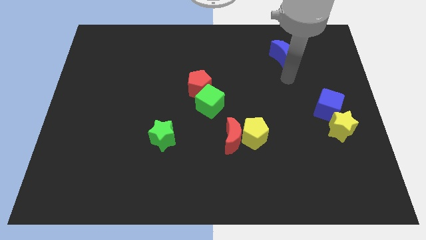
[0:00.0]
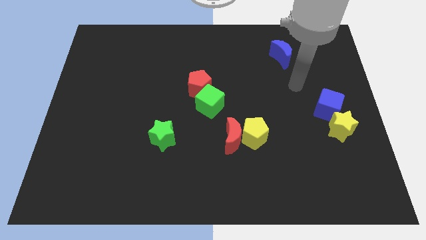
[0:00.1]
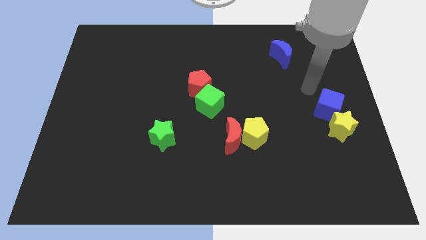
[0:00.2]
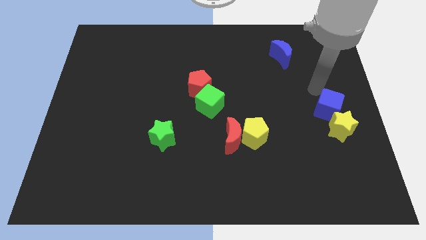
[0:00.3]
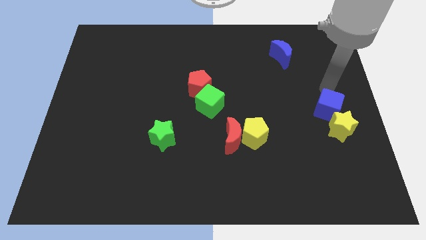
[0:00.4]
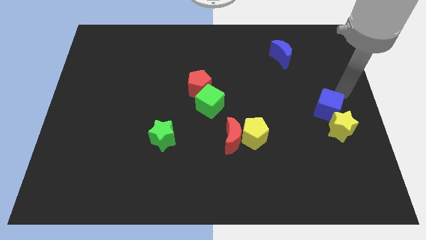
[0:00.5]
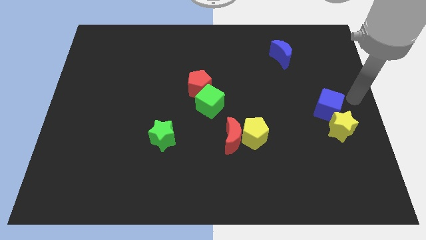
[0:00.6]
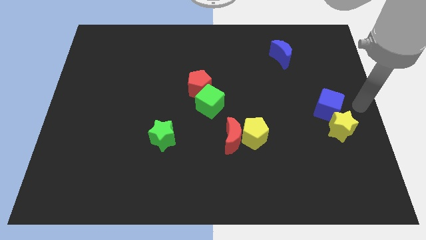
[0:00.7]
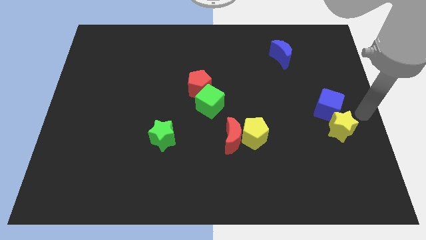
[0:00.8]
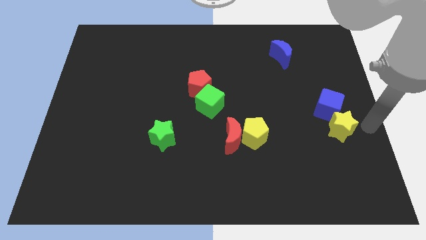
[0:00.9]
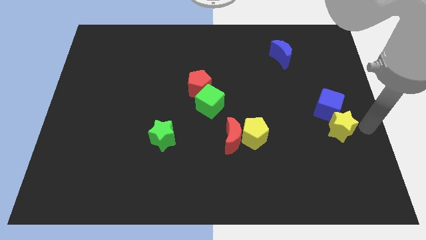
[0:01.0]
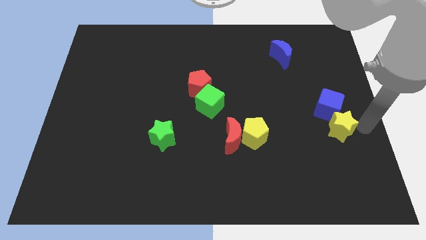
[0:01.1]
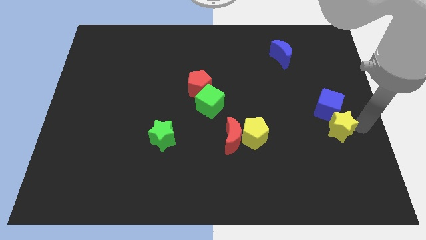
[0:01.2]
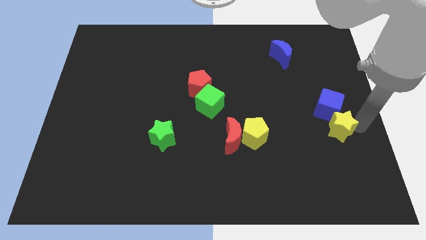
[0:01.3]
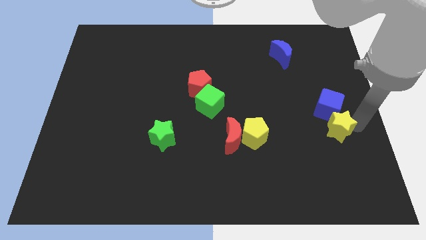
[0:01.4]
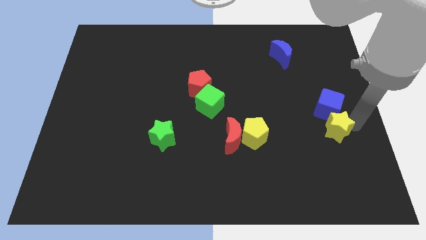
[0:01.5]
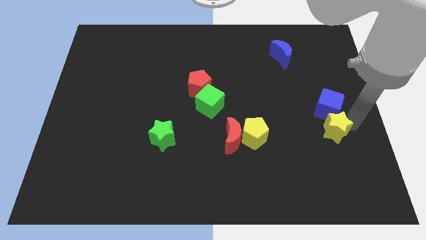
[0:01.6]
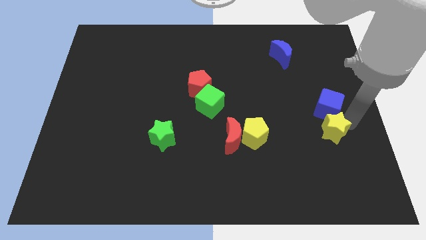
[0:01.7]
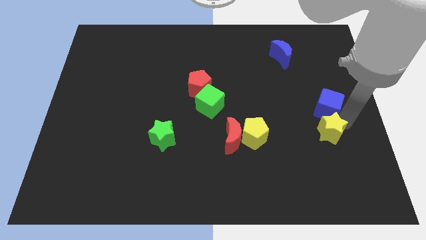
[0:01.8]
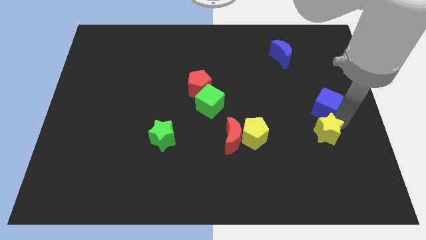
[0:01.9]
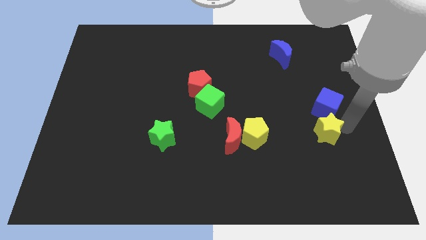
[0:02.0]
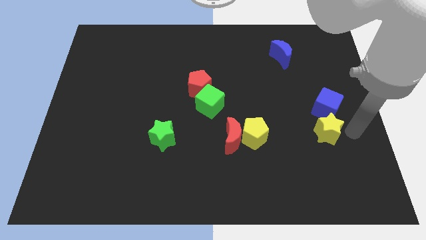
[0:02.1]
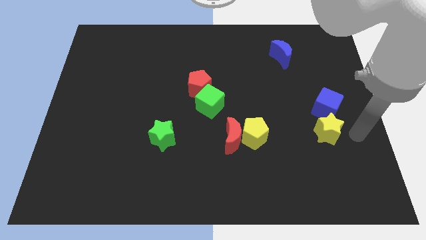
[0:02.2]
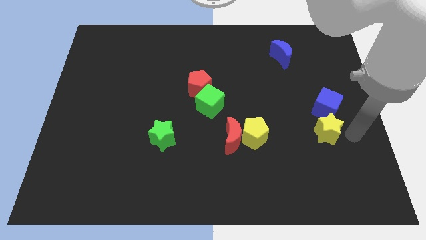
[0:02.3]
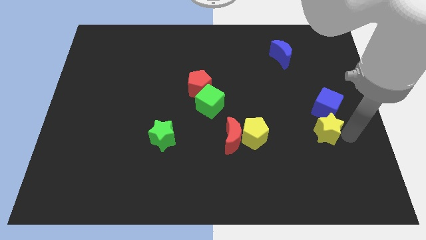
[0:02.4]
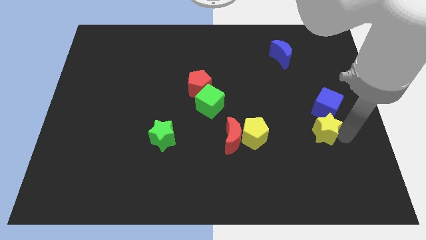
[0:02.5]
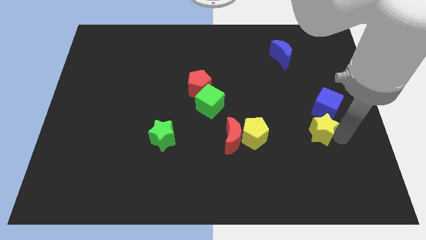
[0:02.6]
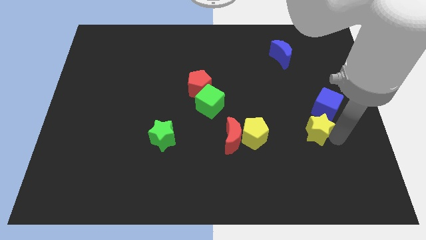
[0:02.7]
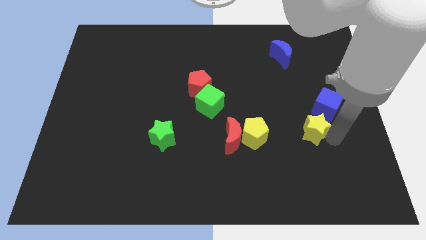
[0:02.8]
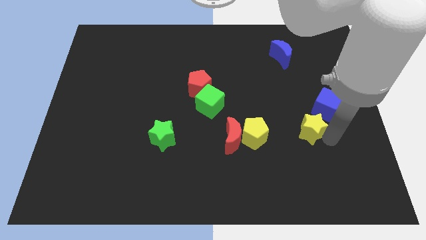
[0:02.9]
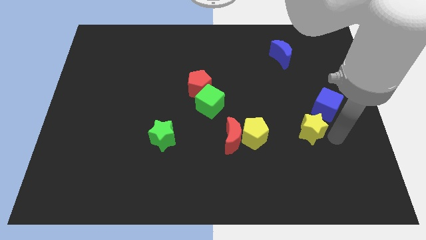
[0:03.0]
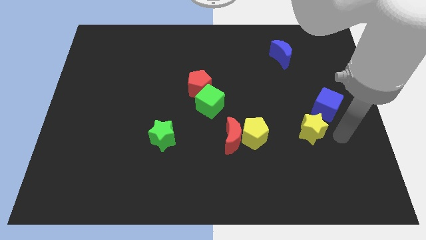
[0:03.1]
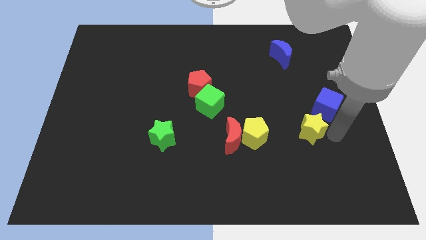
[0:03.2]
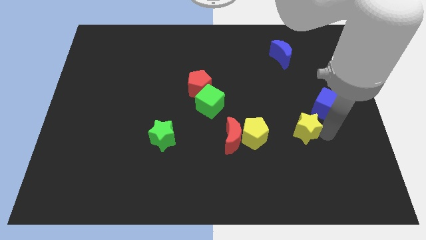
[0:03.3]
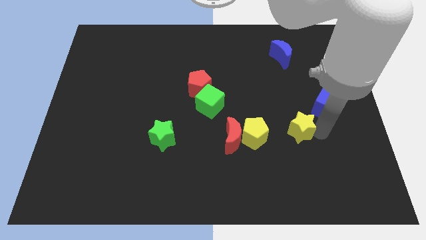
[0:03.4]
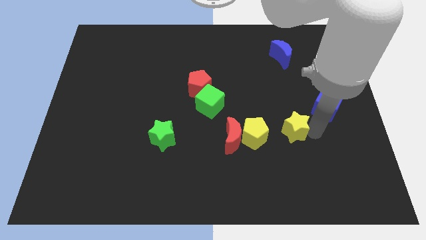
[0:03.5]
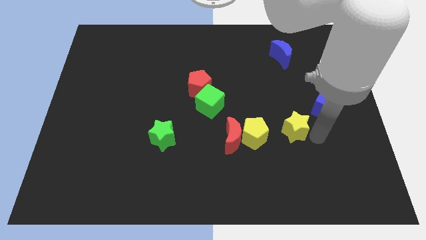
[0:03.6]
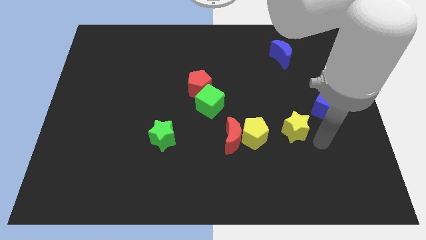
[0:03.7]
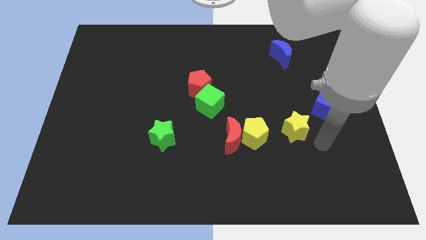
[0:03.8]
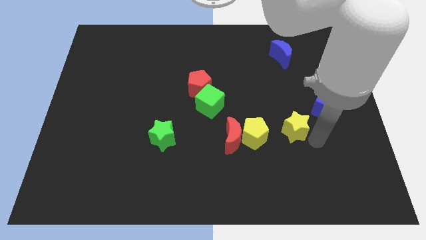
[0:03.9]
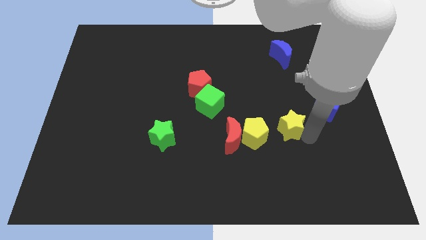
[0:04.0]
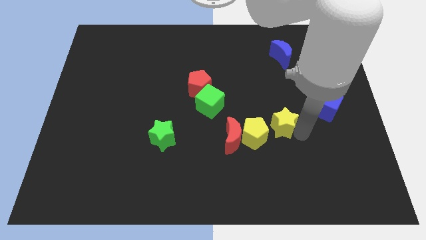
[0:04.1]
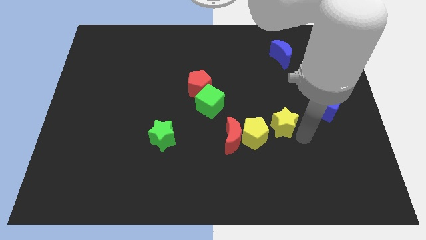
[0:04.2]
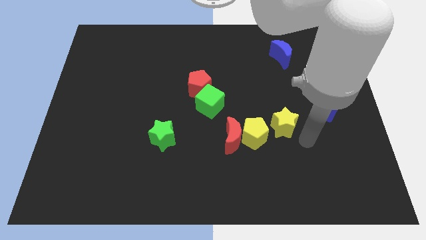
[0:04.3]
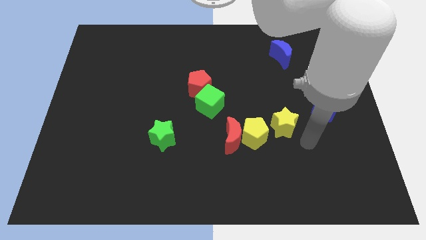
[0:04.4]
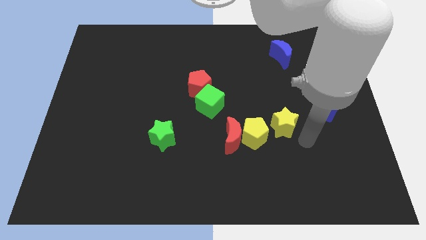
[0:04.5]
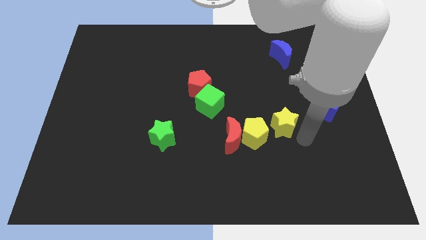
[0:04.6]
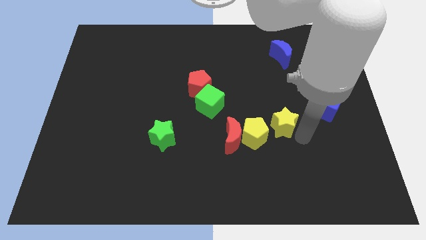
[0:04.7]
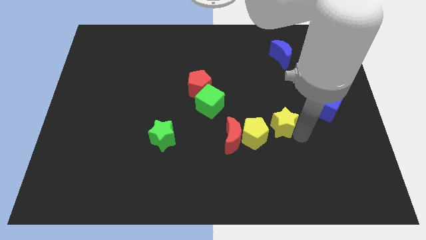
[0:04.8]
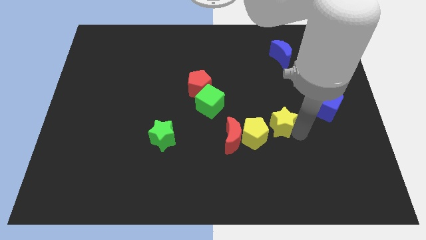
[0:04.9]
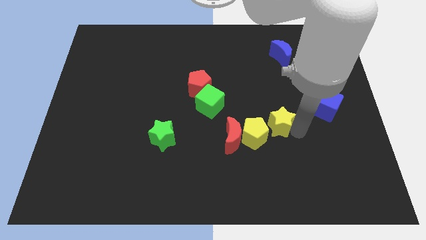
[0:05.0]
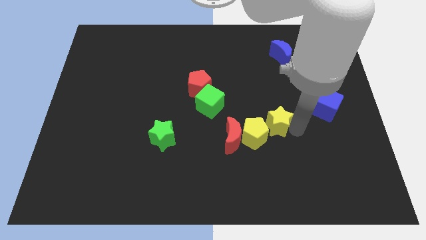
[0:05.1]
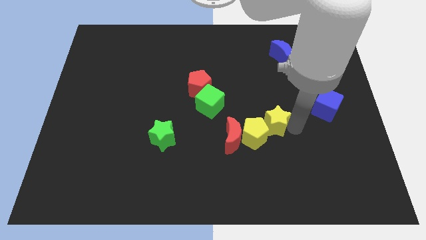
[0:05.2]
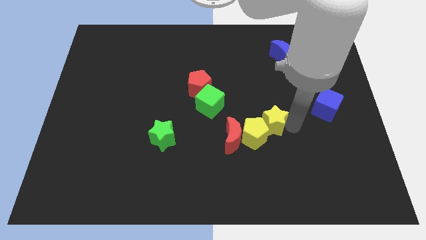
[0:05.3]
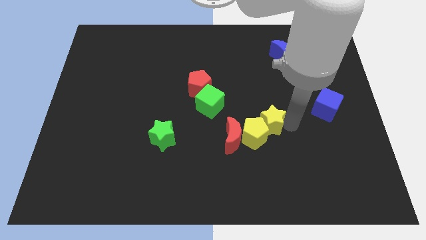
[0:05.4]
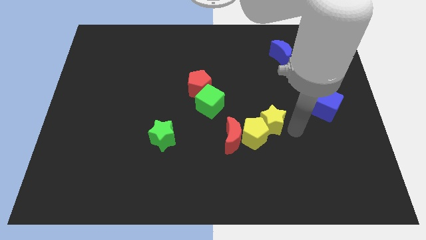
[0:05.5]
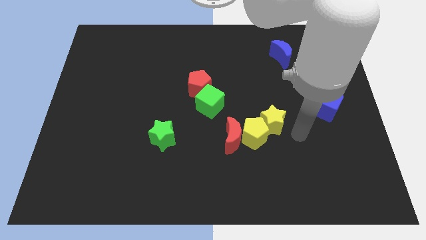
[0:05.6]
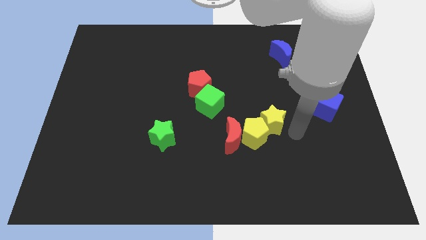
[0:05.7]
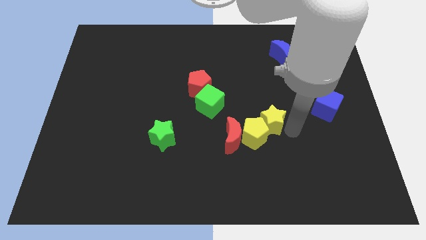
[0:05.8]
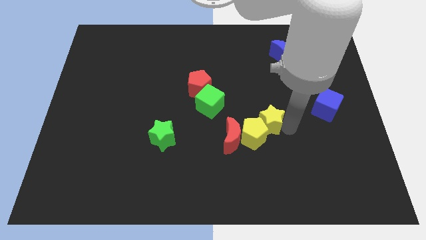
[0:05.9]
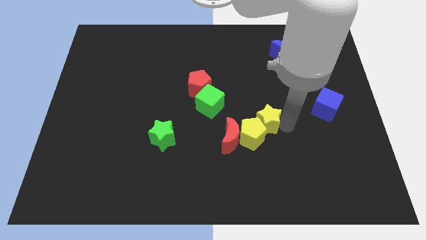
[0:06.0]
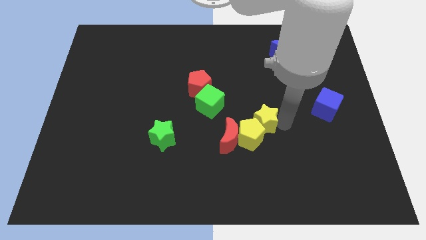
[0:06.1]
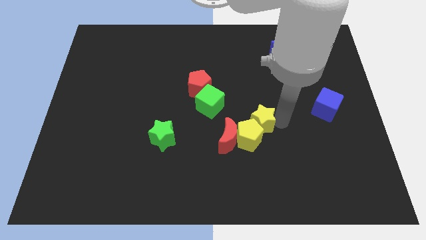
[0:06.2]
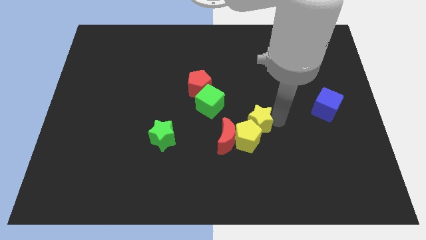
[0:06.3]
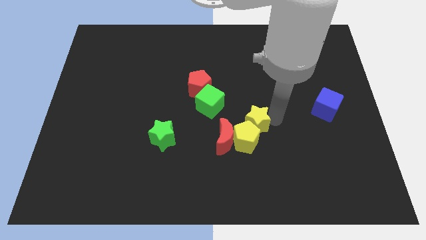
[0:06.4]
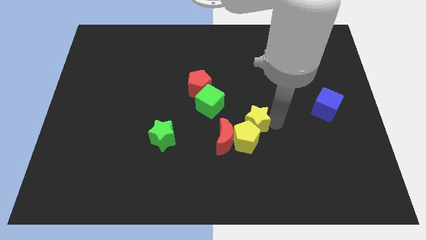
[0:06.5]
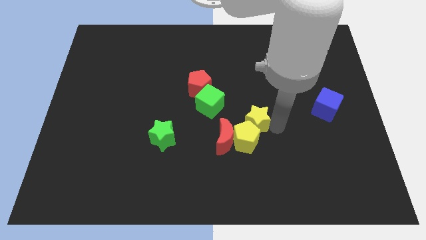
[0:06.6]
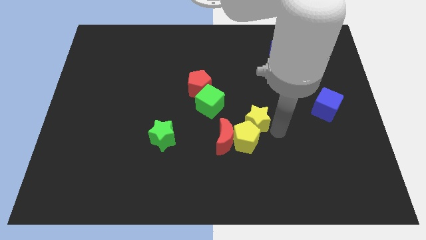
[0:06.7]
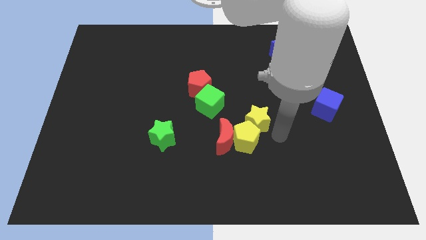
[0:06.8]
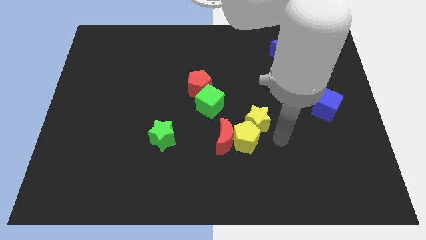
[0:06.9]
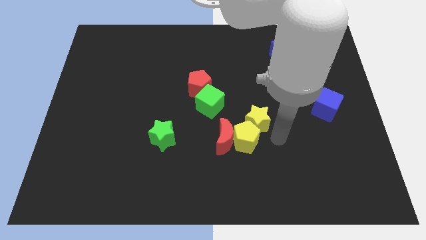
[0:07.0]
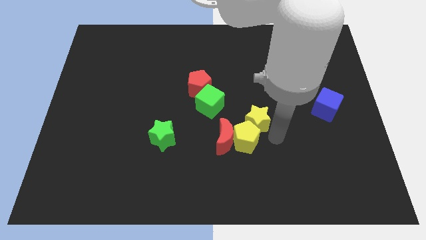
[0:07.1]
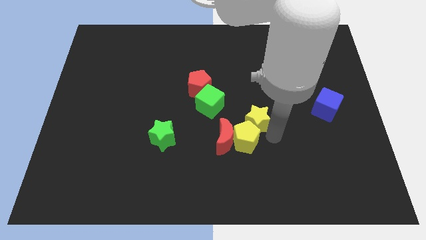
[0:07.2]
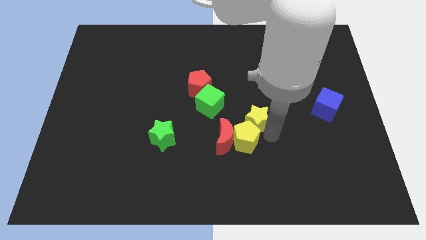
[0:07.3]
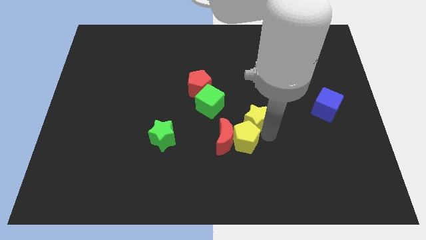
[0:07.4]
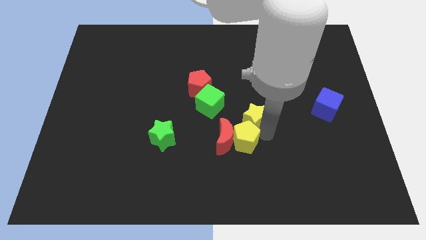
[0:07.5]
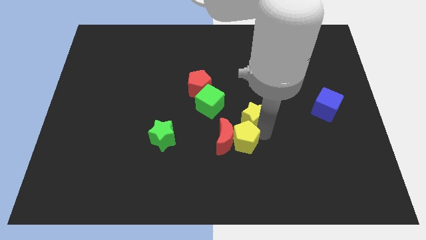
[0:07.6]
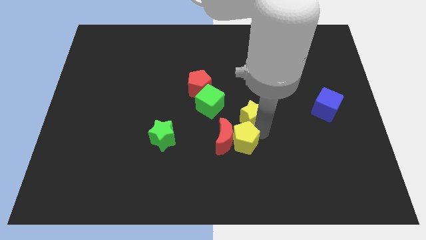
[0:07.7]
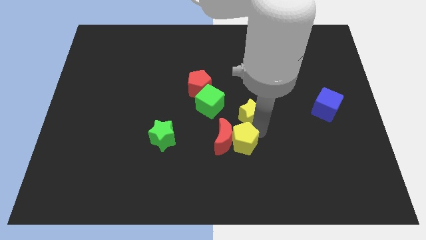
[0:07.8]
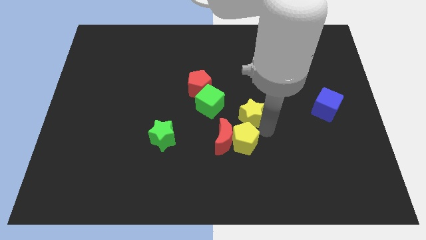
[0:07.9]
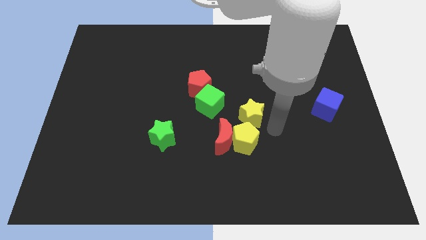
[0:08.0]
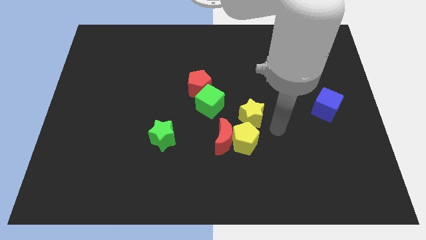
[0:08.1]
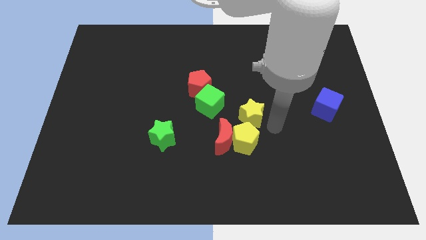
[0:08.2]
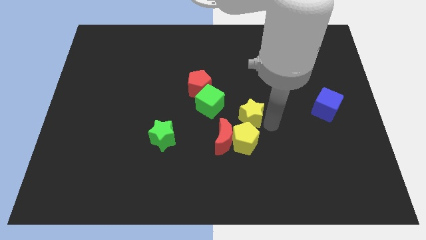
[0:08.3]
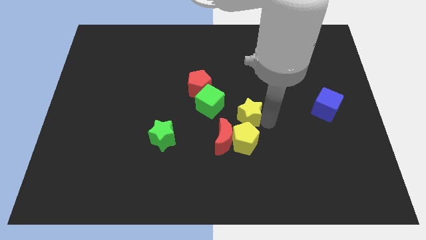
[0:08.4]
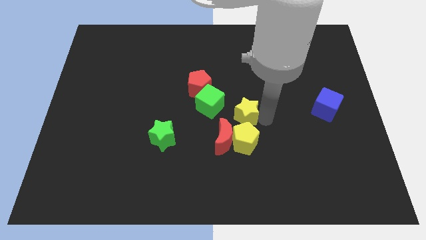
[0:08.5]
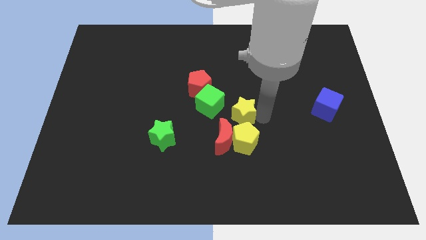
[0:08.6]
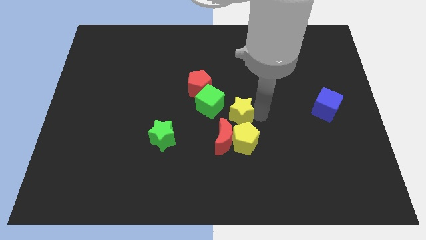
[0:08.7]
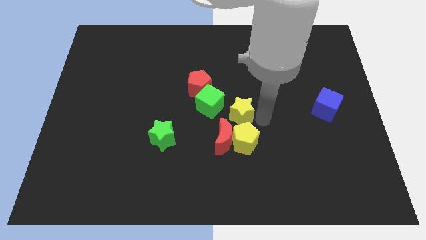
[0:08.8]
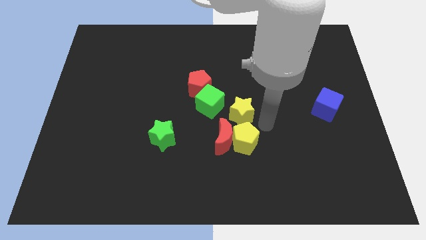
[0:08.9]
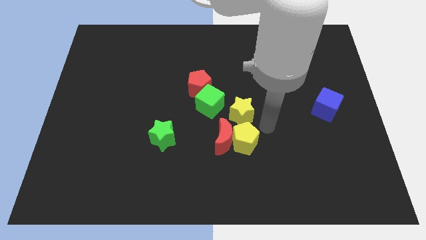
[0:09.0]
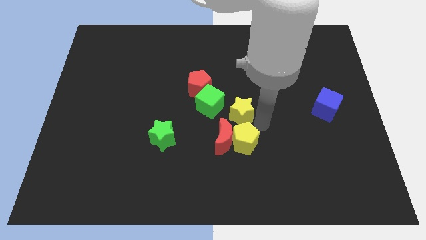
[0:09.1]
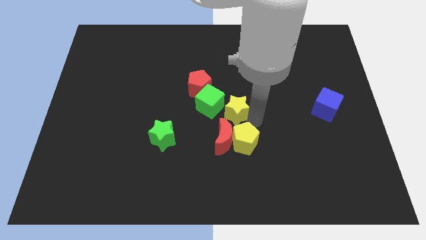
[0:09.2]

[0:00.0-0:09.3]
push the yellow star to the bottom right side of the red pentagon
